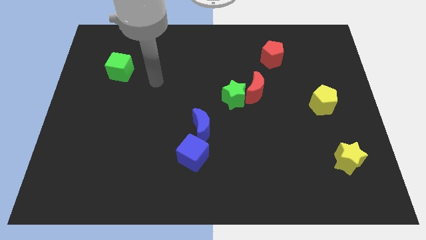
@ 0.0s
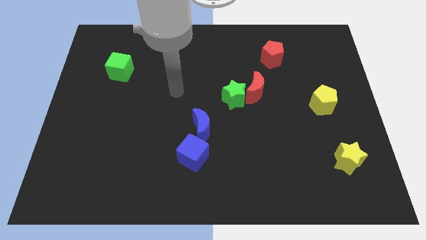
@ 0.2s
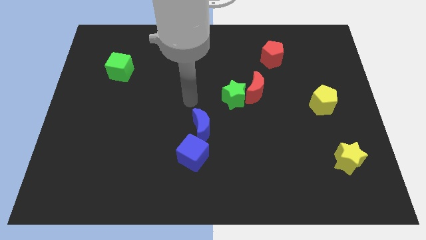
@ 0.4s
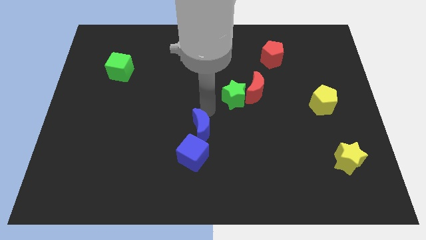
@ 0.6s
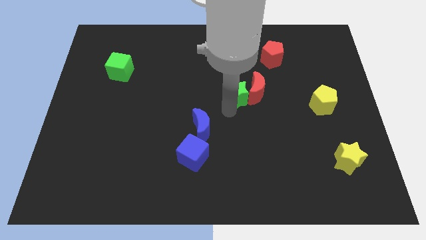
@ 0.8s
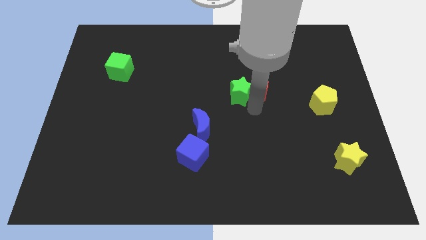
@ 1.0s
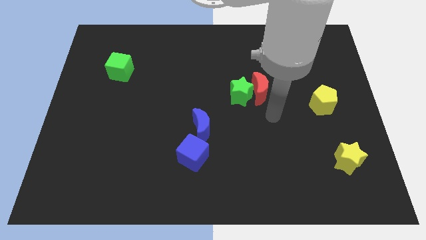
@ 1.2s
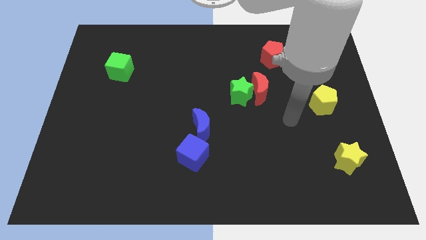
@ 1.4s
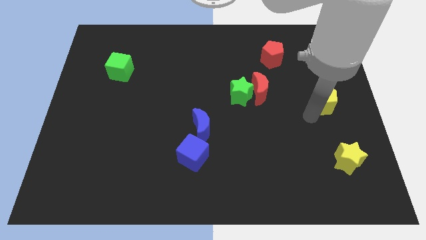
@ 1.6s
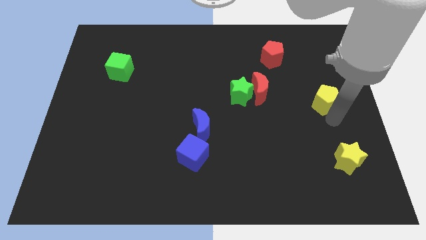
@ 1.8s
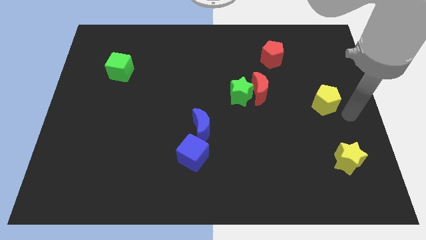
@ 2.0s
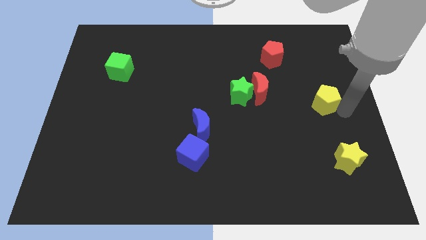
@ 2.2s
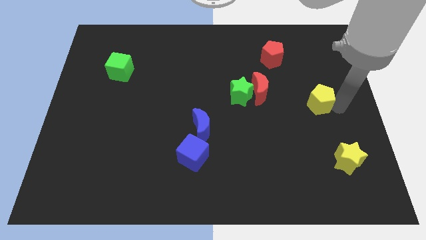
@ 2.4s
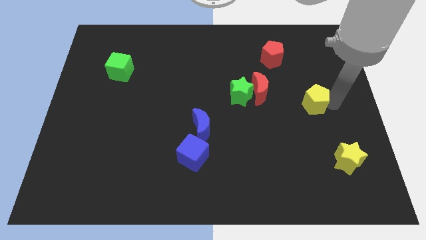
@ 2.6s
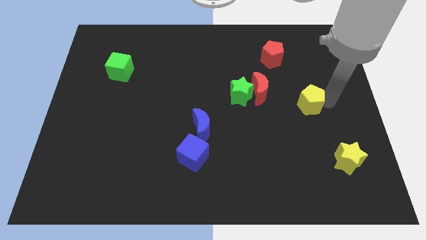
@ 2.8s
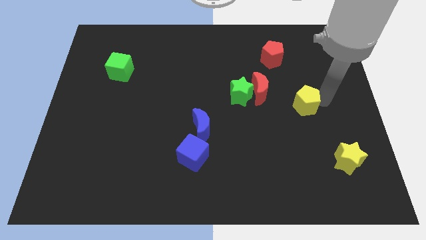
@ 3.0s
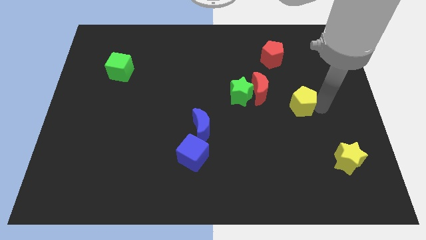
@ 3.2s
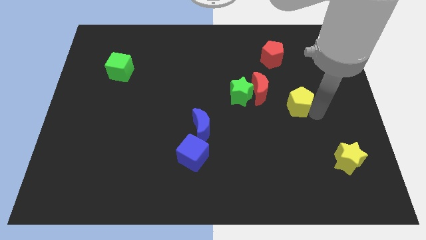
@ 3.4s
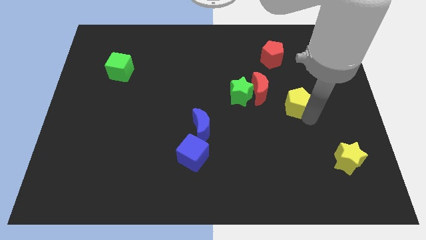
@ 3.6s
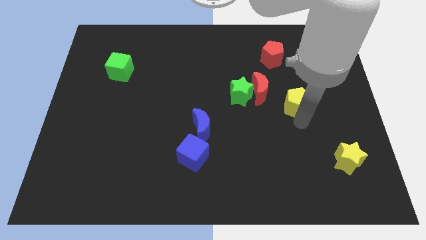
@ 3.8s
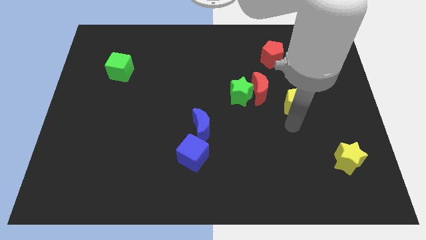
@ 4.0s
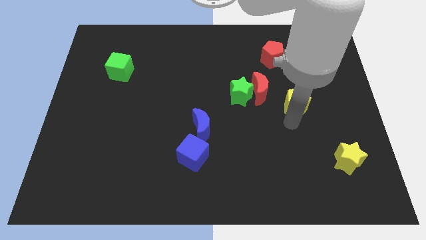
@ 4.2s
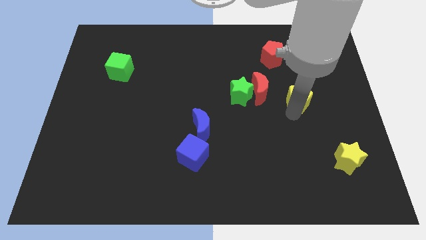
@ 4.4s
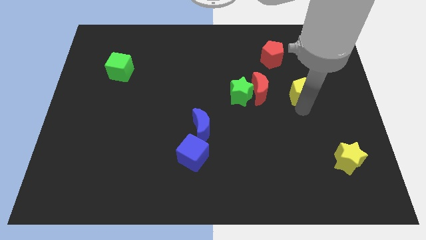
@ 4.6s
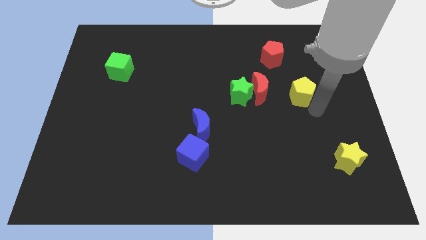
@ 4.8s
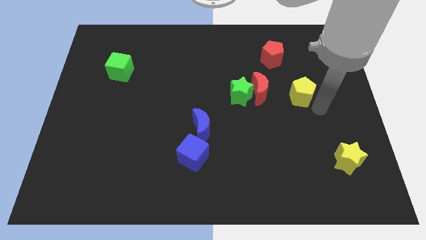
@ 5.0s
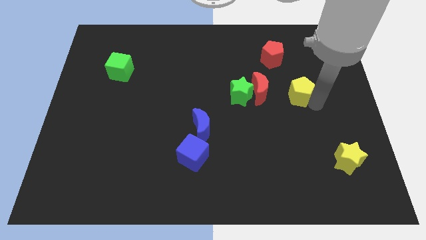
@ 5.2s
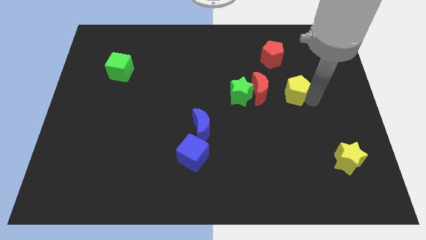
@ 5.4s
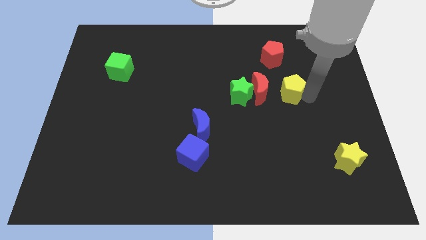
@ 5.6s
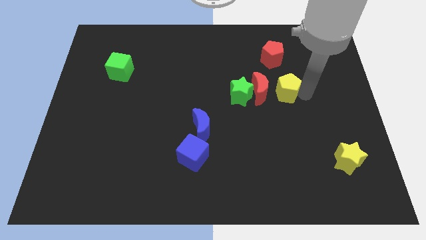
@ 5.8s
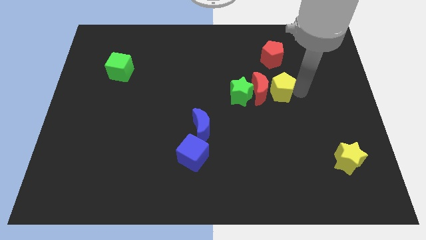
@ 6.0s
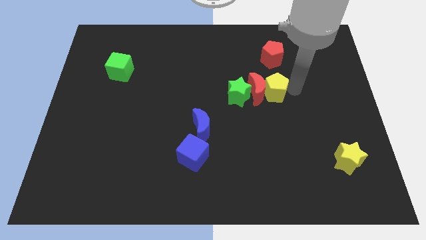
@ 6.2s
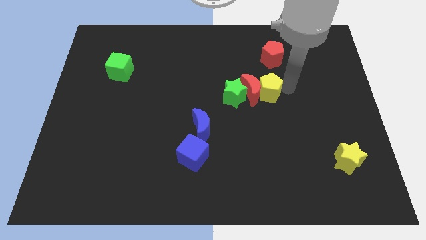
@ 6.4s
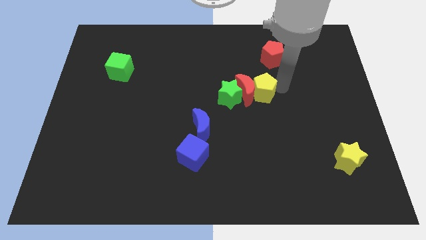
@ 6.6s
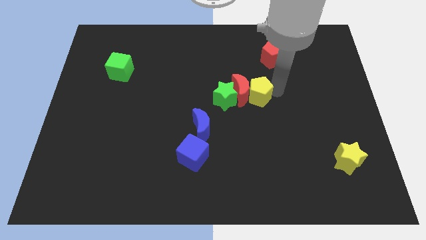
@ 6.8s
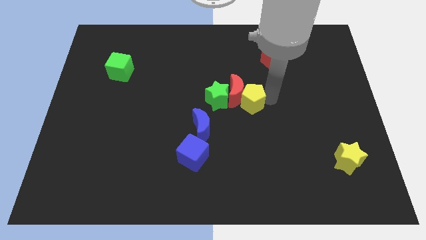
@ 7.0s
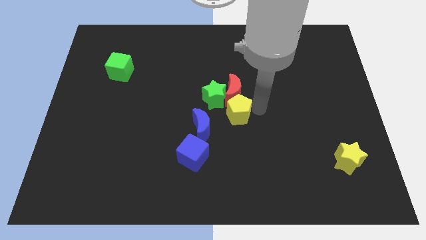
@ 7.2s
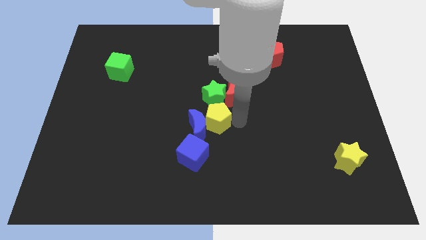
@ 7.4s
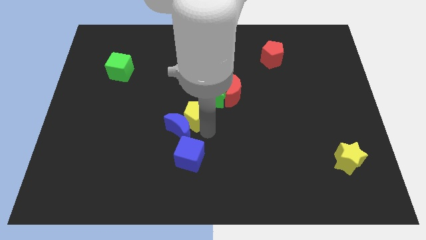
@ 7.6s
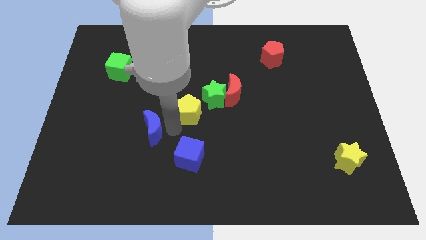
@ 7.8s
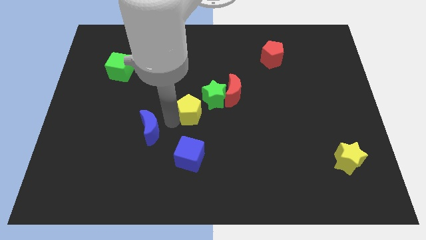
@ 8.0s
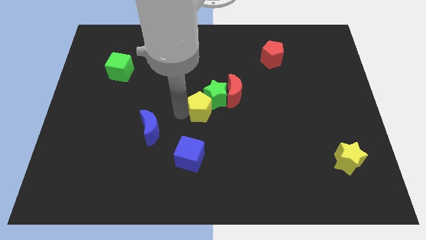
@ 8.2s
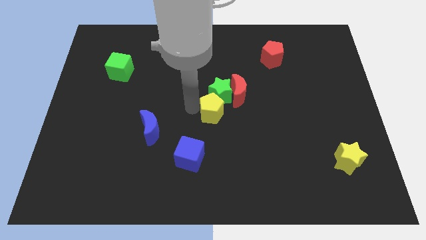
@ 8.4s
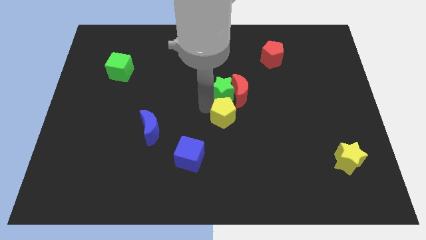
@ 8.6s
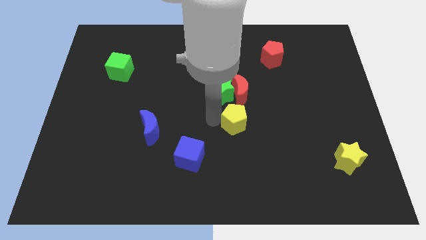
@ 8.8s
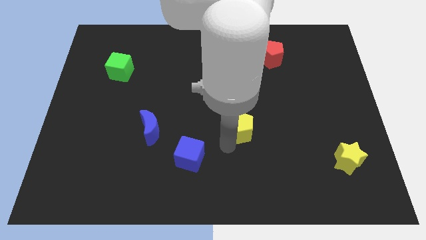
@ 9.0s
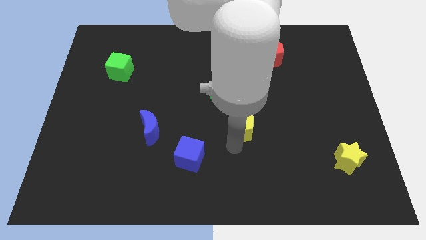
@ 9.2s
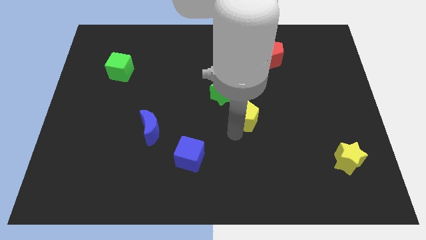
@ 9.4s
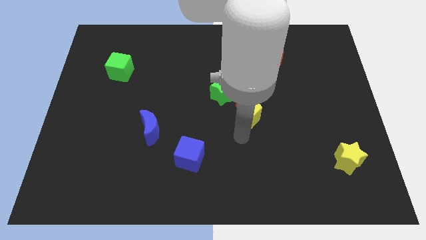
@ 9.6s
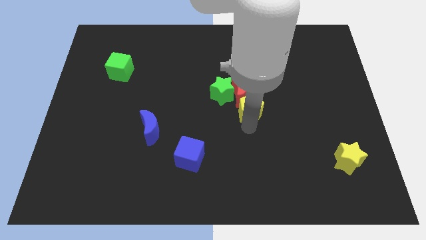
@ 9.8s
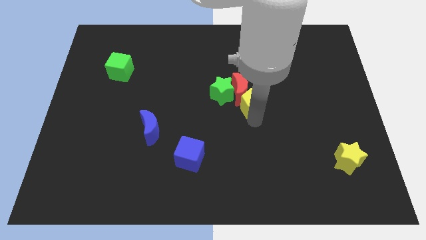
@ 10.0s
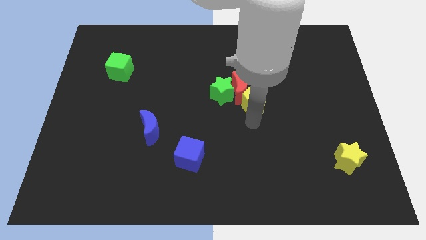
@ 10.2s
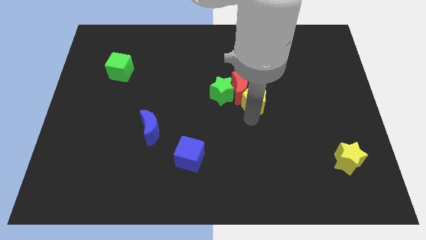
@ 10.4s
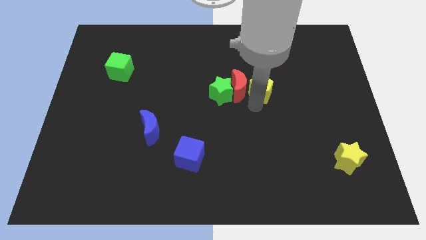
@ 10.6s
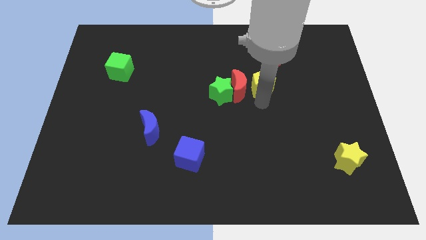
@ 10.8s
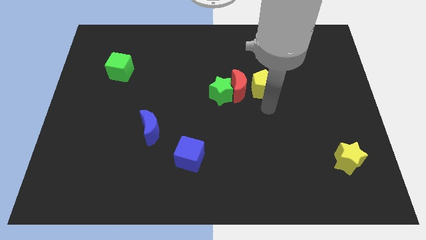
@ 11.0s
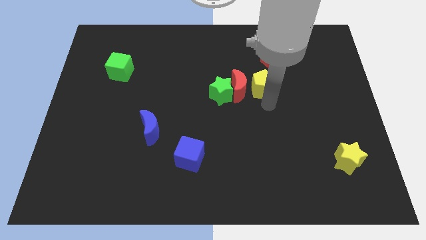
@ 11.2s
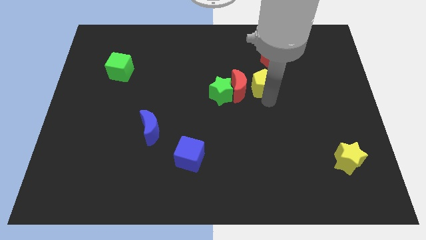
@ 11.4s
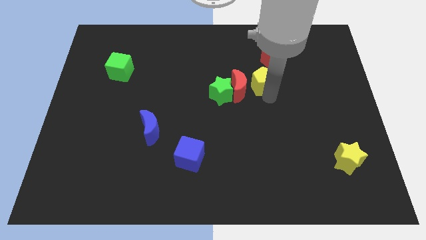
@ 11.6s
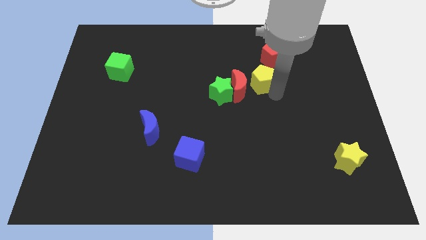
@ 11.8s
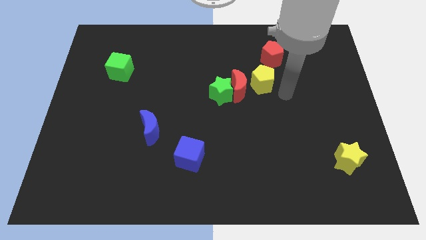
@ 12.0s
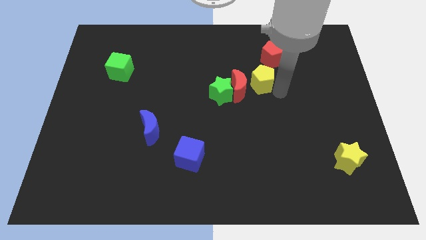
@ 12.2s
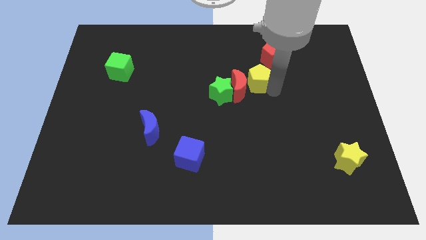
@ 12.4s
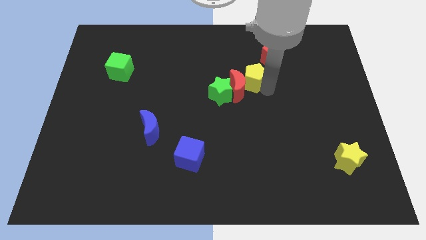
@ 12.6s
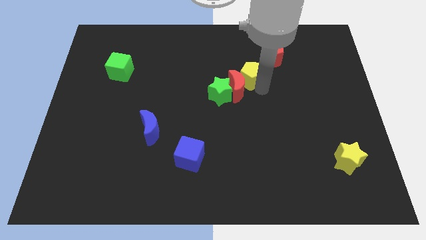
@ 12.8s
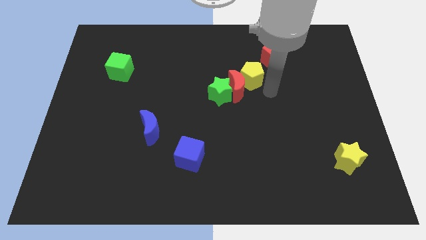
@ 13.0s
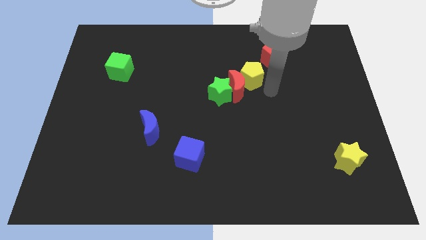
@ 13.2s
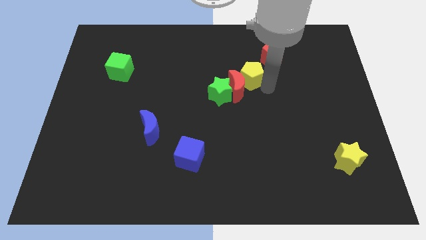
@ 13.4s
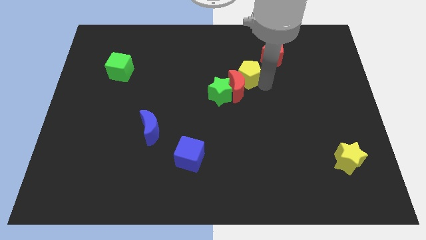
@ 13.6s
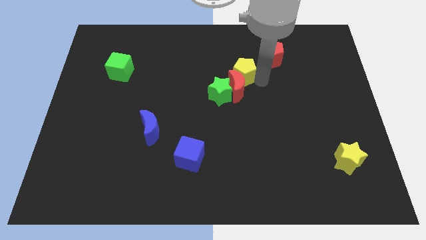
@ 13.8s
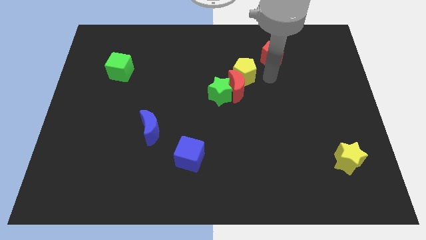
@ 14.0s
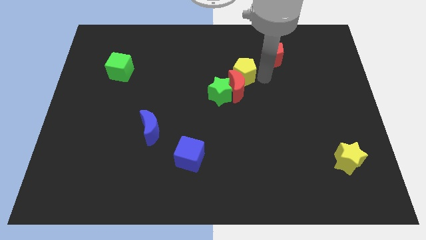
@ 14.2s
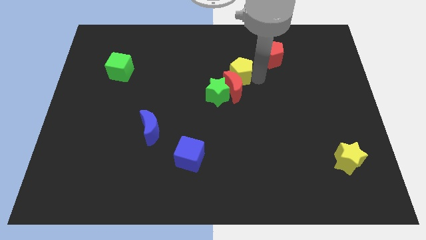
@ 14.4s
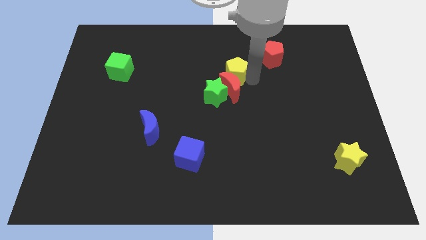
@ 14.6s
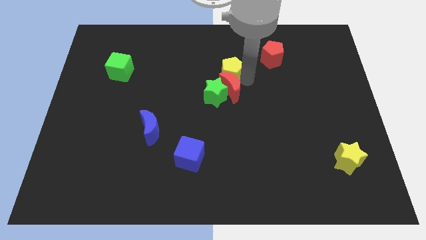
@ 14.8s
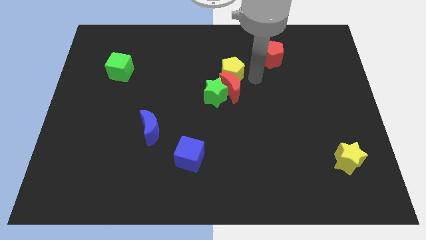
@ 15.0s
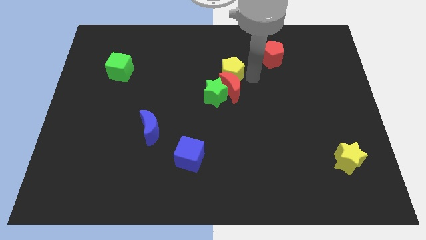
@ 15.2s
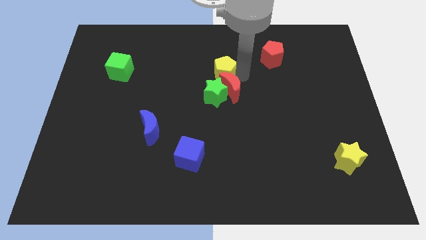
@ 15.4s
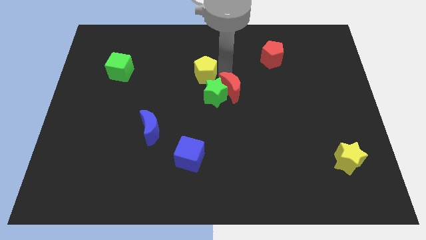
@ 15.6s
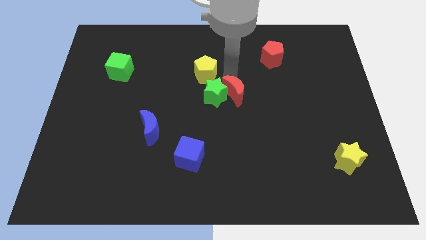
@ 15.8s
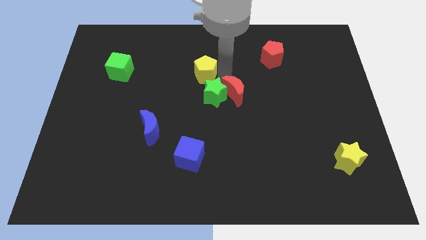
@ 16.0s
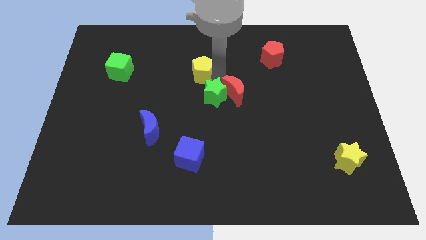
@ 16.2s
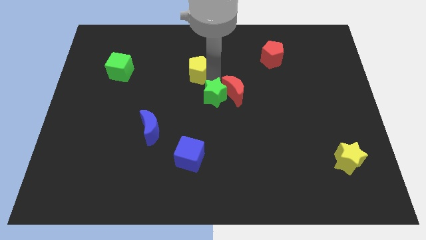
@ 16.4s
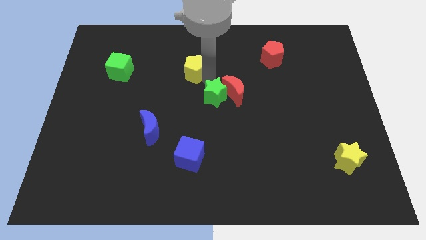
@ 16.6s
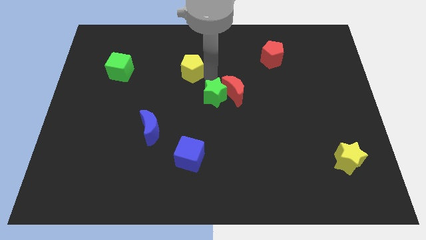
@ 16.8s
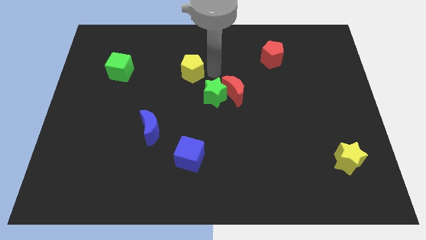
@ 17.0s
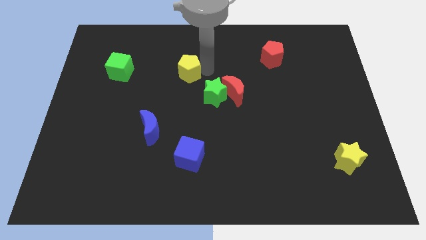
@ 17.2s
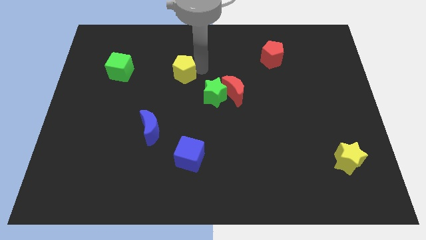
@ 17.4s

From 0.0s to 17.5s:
push the yellow pentagon right of the green cube
